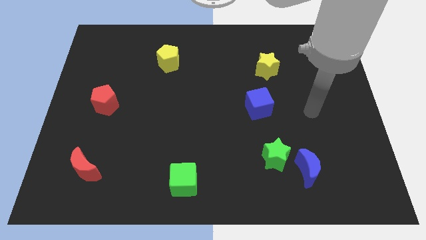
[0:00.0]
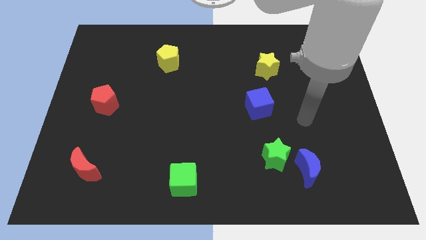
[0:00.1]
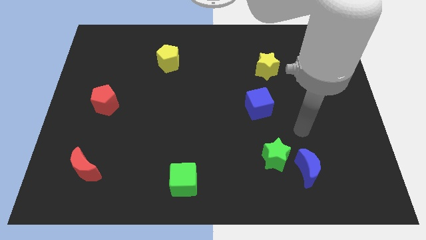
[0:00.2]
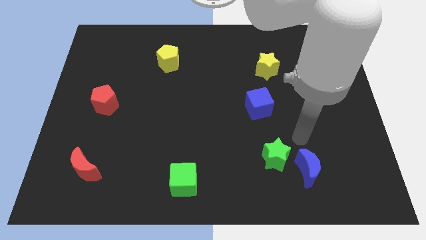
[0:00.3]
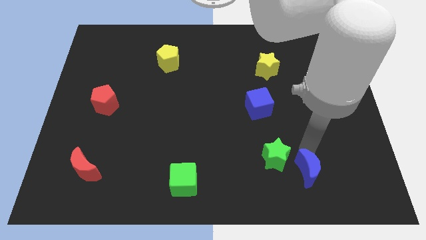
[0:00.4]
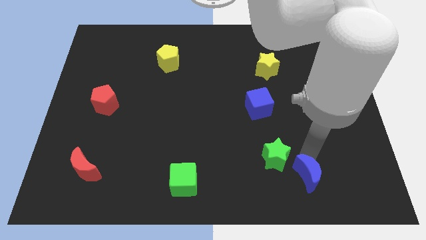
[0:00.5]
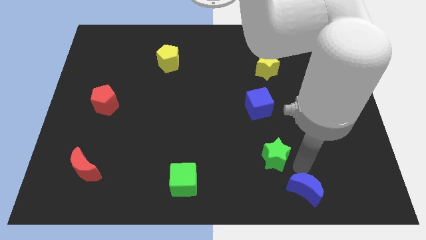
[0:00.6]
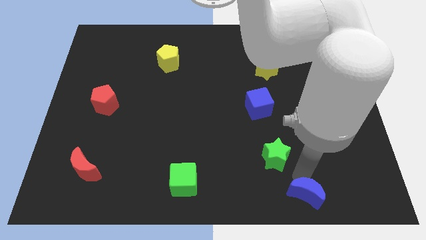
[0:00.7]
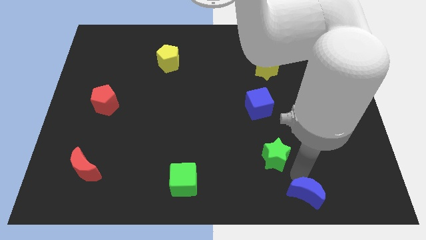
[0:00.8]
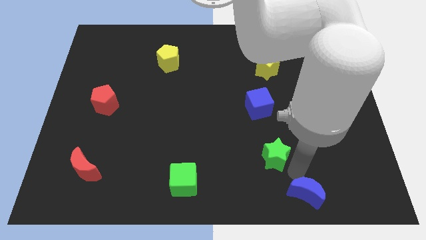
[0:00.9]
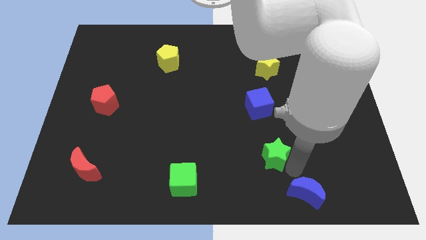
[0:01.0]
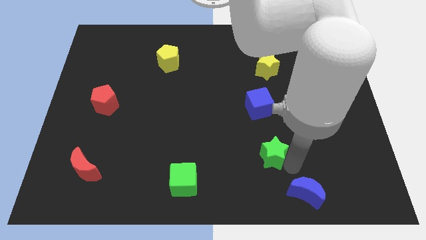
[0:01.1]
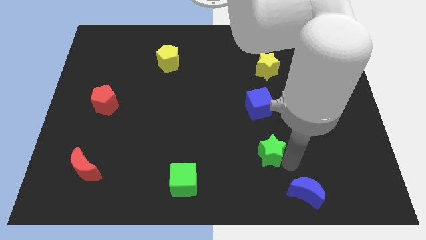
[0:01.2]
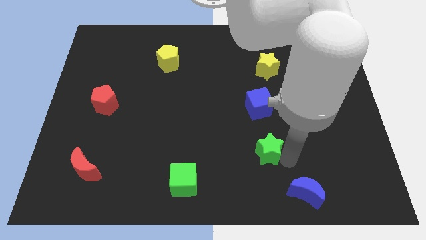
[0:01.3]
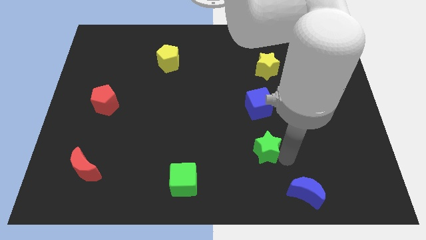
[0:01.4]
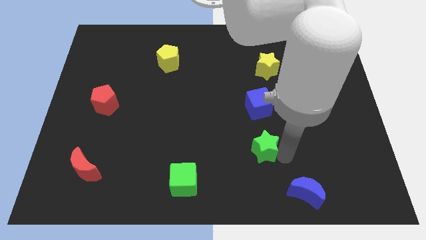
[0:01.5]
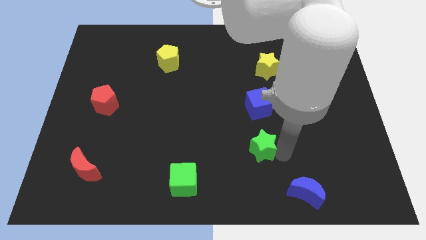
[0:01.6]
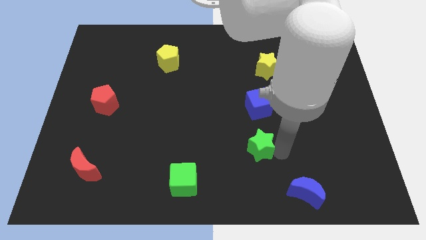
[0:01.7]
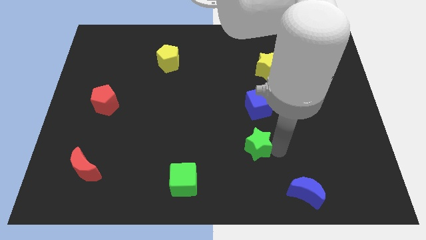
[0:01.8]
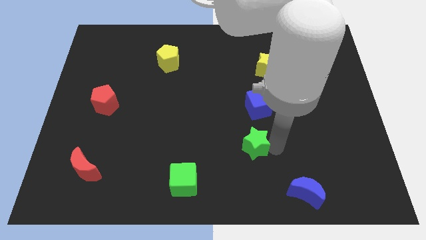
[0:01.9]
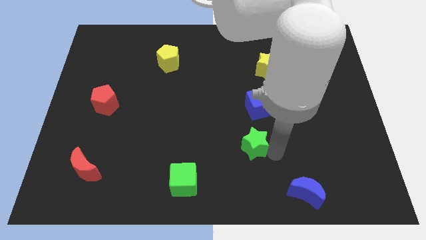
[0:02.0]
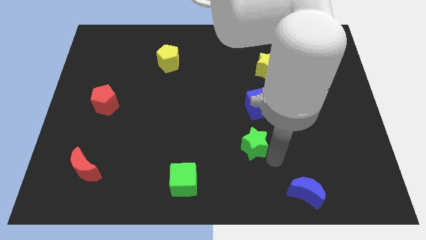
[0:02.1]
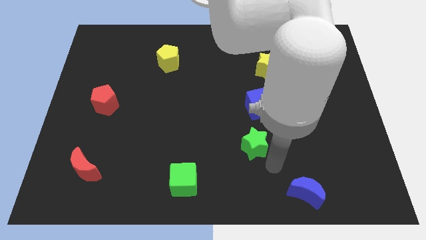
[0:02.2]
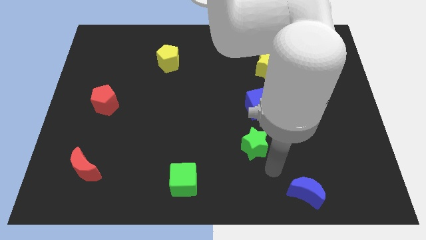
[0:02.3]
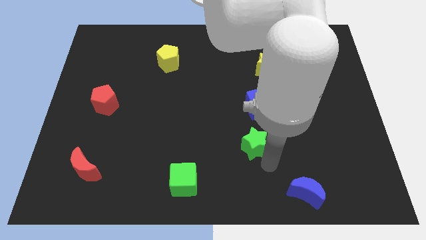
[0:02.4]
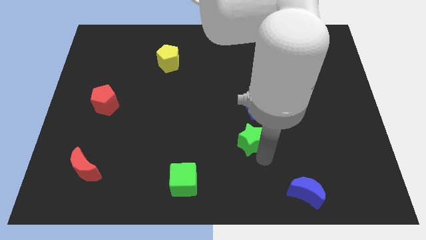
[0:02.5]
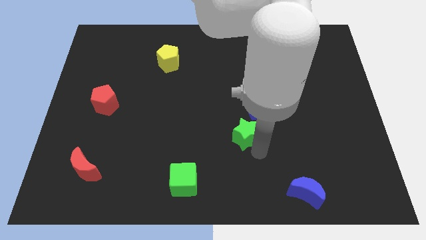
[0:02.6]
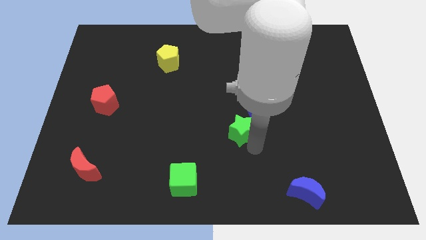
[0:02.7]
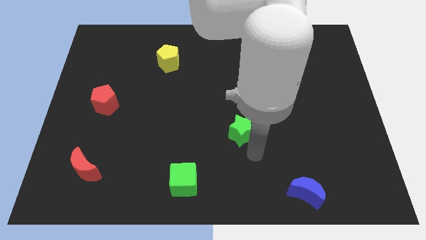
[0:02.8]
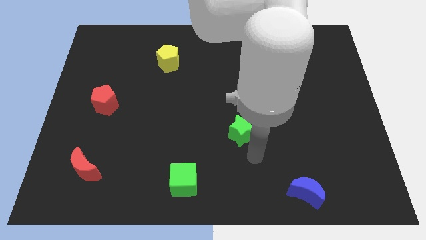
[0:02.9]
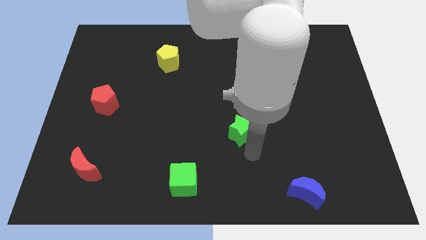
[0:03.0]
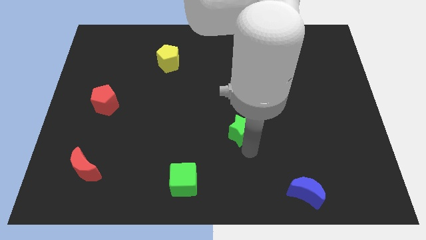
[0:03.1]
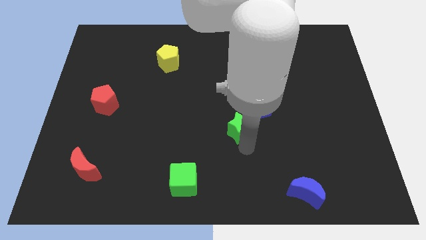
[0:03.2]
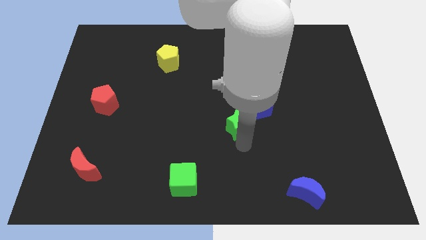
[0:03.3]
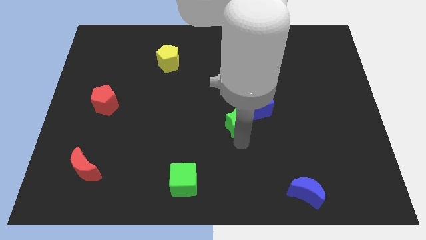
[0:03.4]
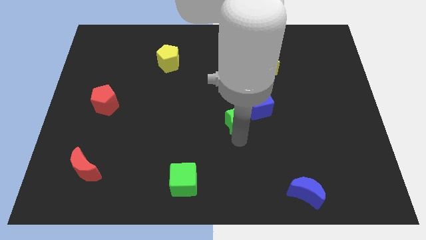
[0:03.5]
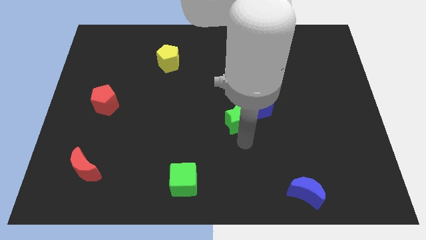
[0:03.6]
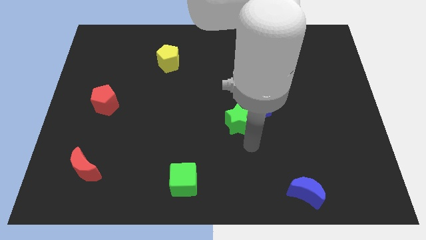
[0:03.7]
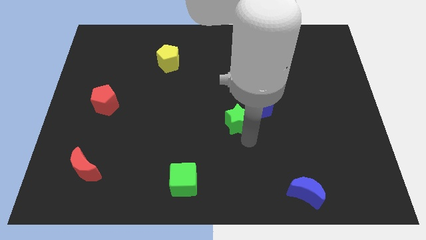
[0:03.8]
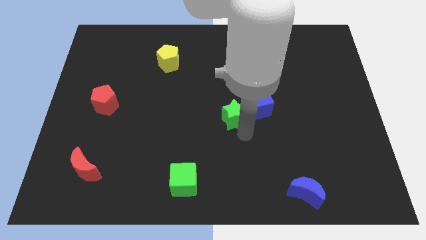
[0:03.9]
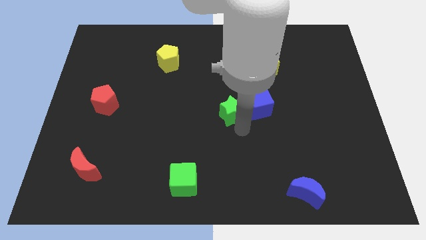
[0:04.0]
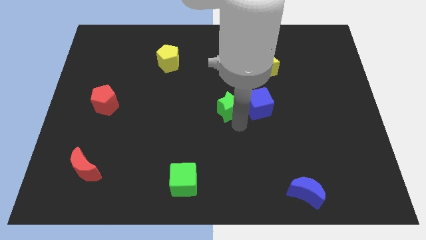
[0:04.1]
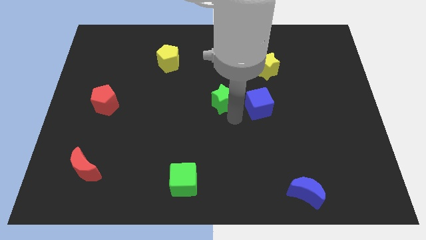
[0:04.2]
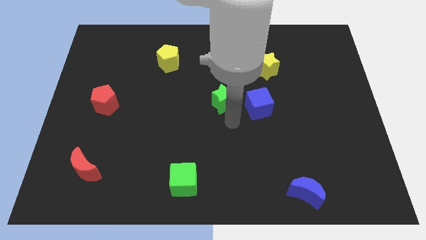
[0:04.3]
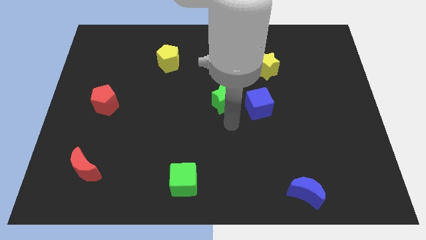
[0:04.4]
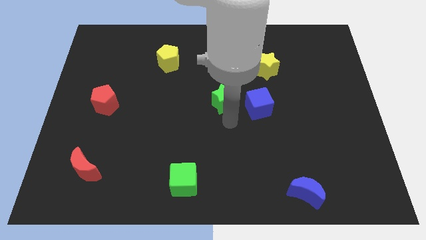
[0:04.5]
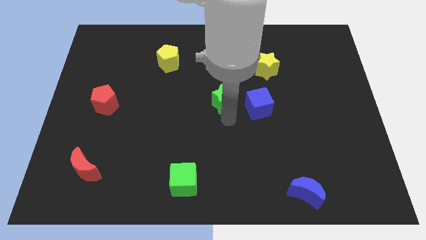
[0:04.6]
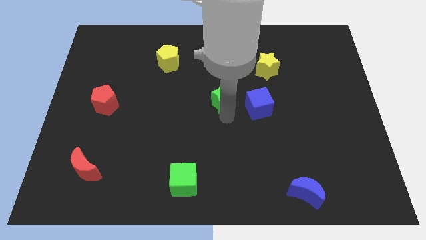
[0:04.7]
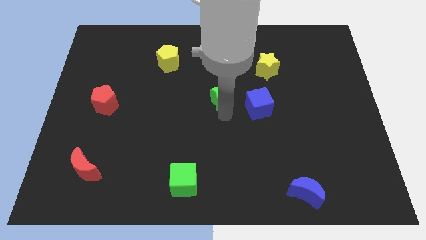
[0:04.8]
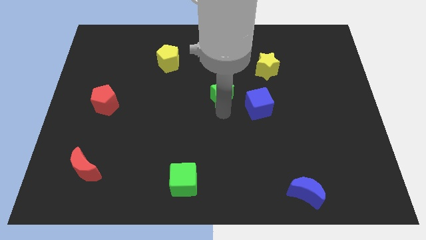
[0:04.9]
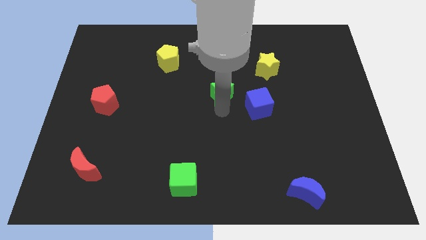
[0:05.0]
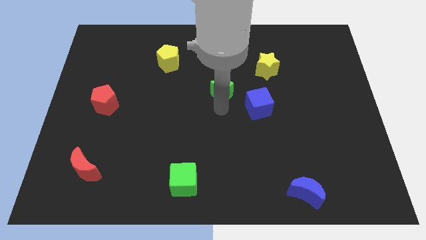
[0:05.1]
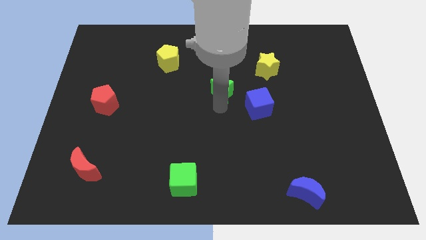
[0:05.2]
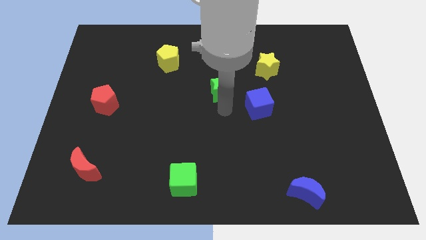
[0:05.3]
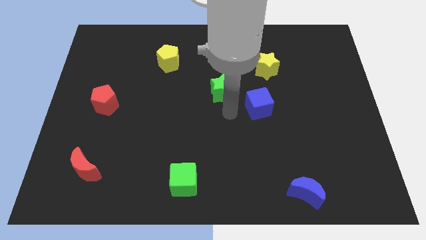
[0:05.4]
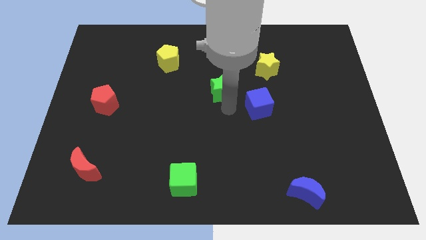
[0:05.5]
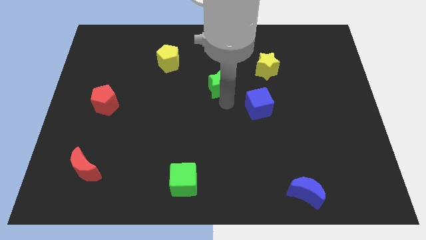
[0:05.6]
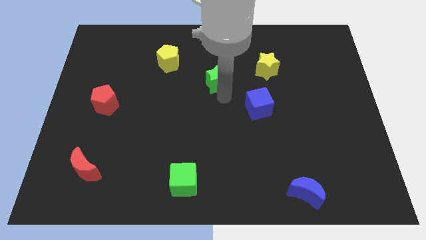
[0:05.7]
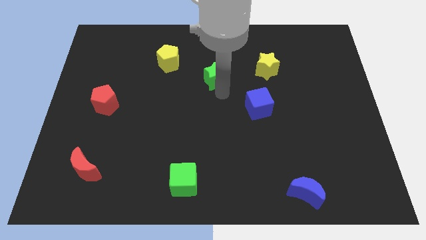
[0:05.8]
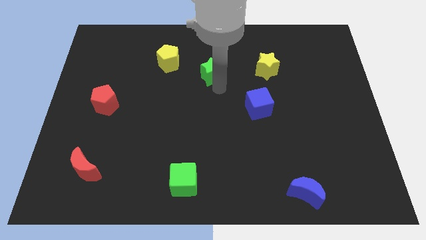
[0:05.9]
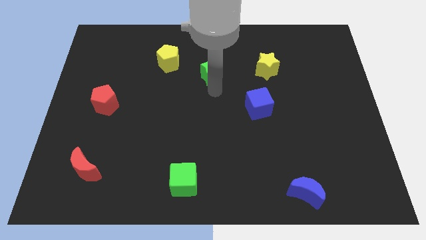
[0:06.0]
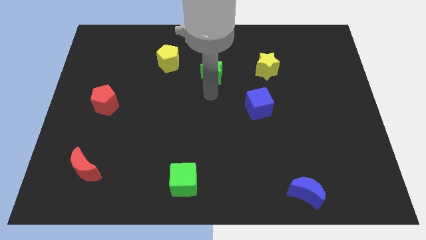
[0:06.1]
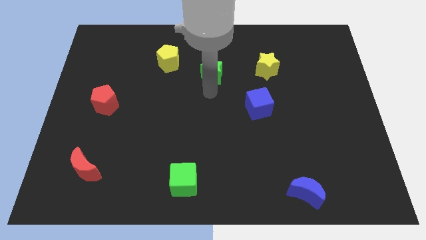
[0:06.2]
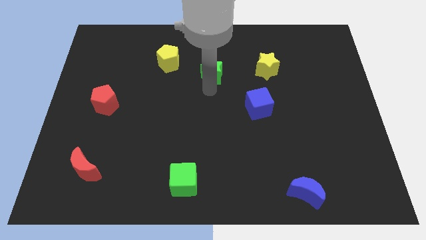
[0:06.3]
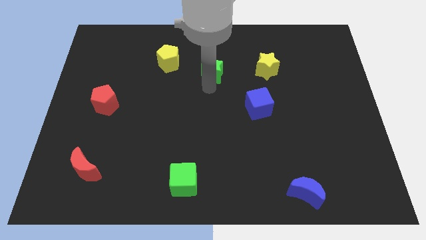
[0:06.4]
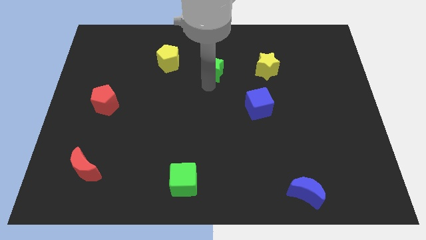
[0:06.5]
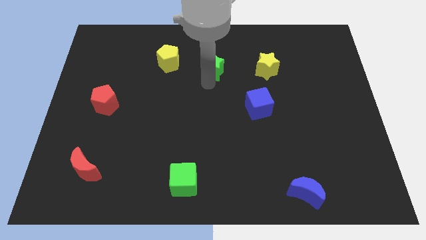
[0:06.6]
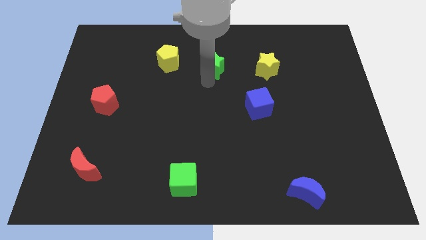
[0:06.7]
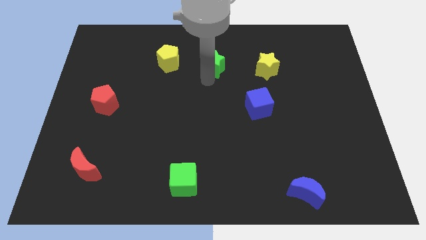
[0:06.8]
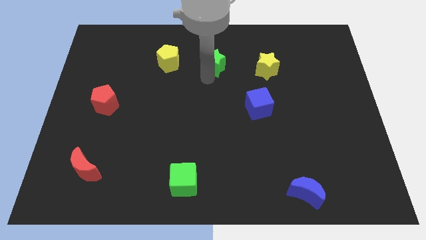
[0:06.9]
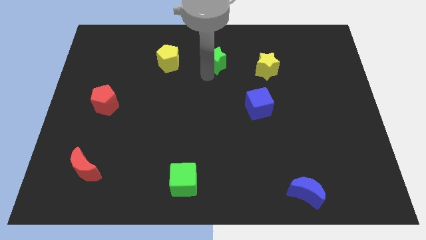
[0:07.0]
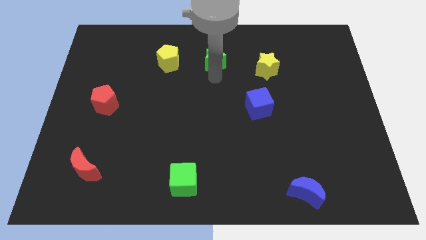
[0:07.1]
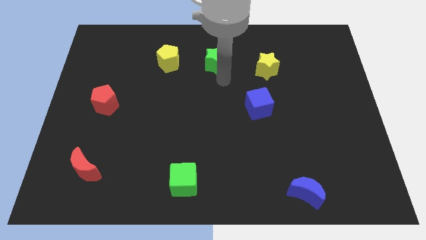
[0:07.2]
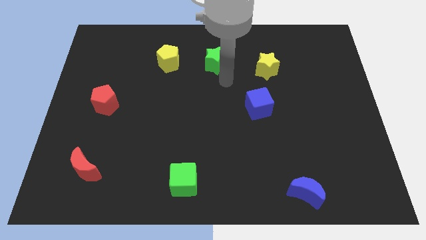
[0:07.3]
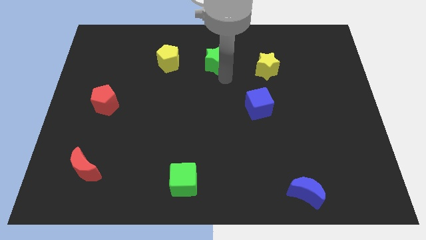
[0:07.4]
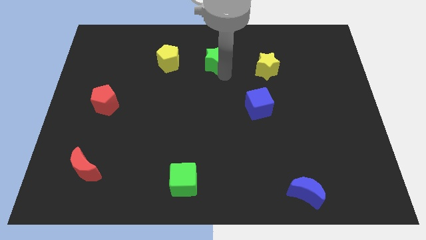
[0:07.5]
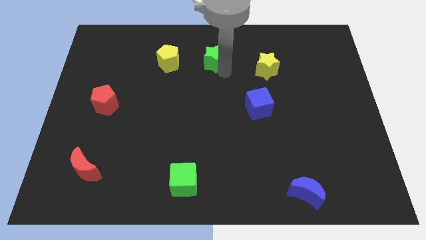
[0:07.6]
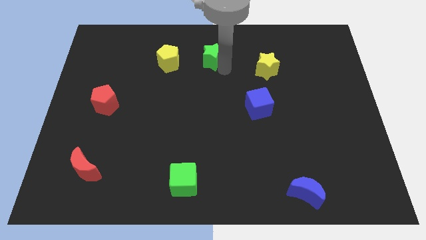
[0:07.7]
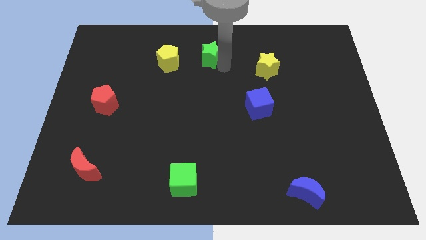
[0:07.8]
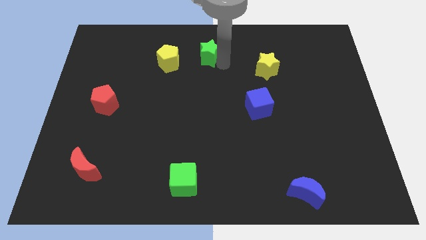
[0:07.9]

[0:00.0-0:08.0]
push the green star to the towards your base

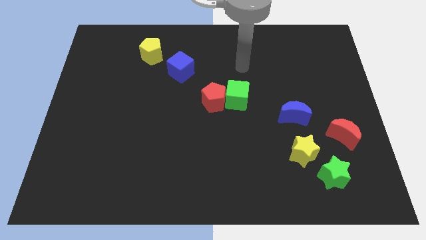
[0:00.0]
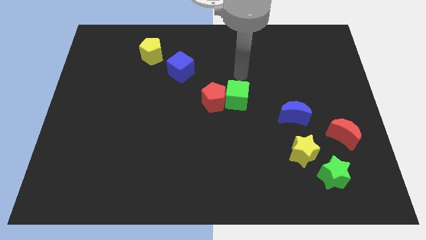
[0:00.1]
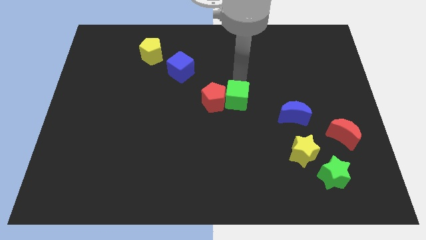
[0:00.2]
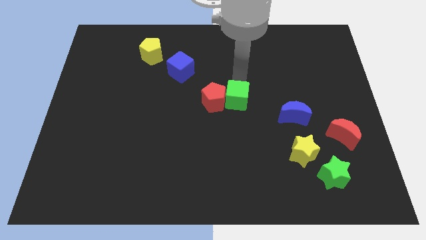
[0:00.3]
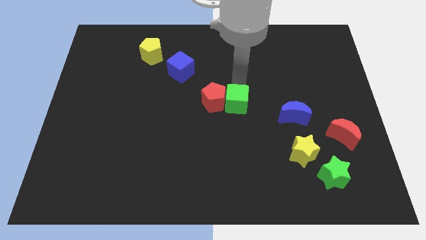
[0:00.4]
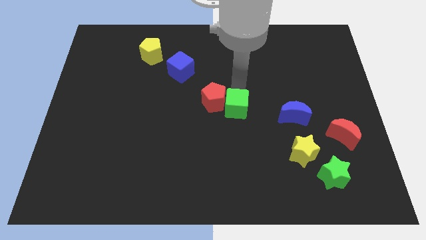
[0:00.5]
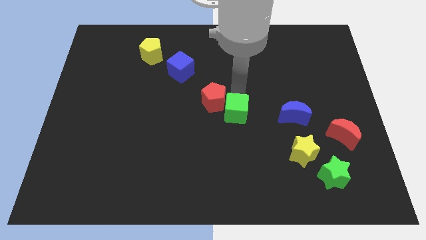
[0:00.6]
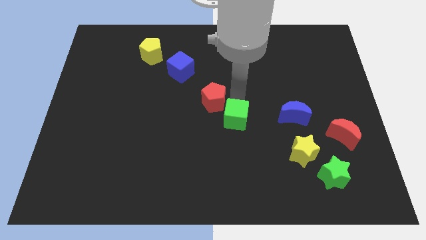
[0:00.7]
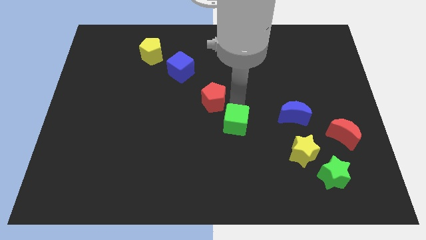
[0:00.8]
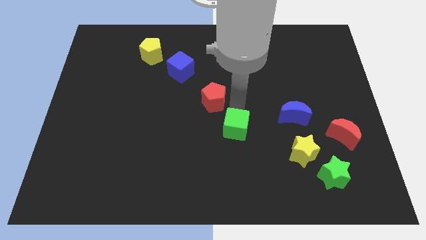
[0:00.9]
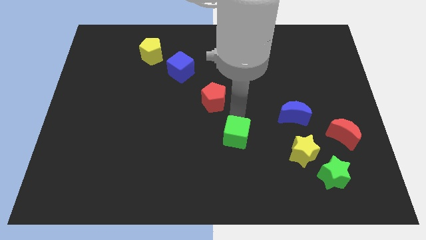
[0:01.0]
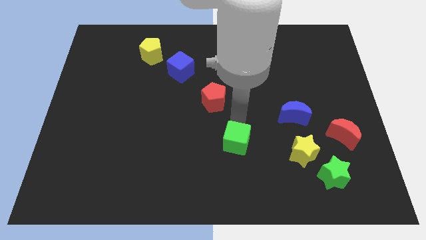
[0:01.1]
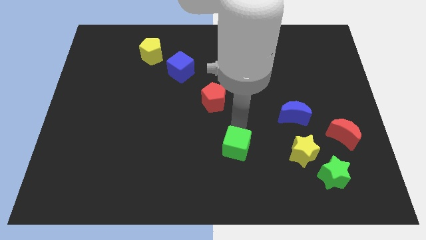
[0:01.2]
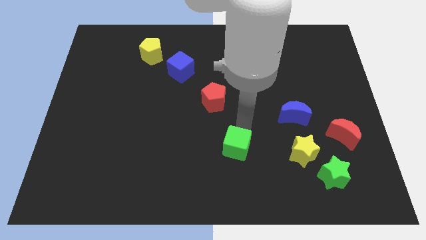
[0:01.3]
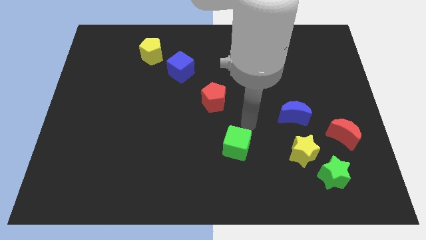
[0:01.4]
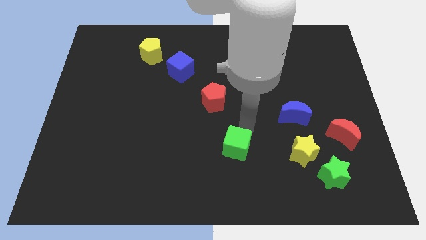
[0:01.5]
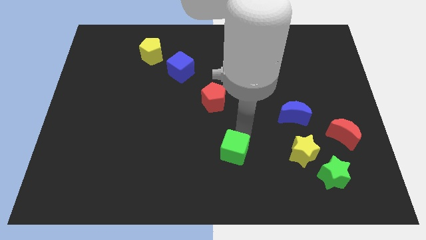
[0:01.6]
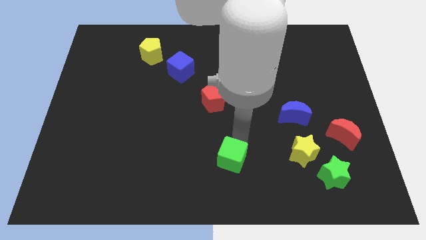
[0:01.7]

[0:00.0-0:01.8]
move the green cube to the bottom side
